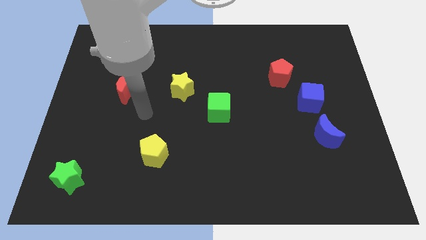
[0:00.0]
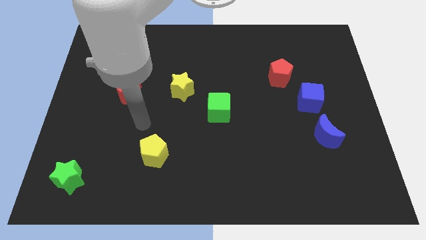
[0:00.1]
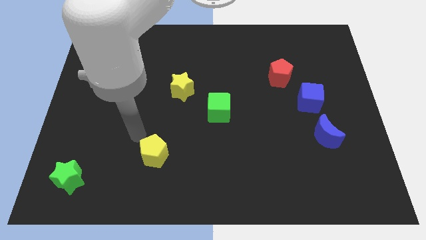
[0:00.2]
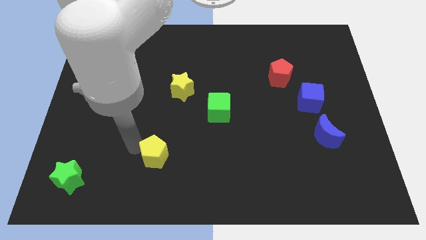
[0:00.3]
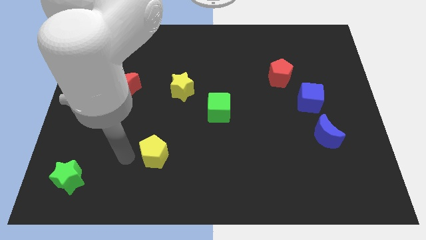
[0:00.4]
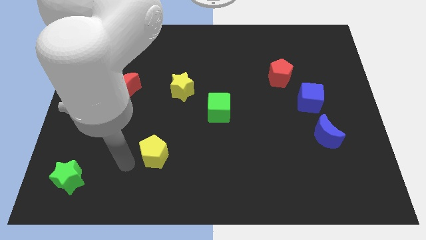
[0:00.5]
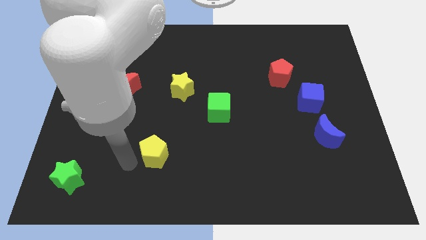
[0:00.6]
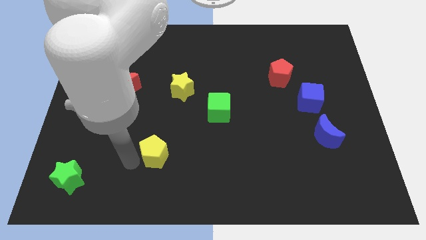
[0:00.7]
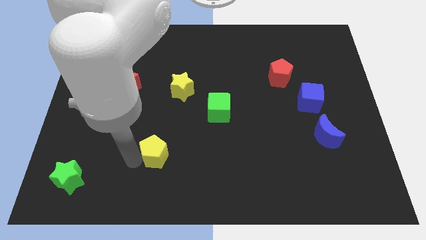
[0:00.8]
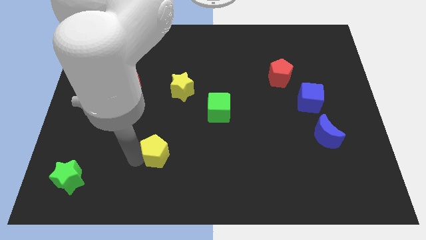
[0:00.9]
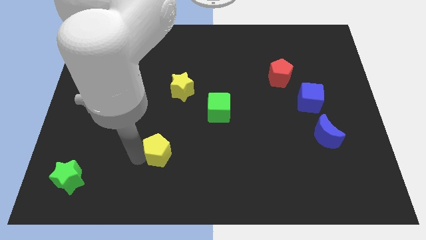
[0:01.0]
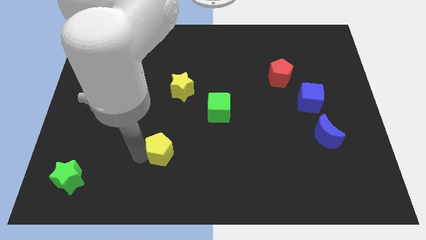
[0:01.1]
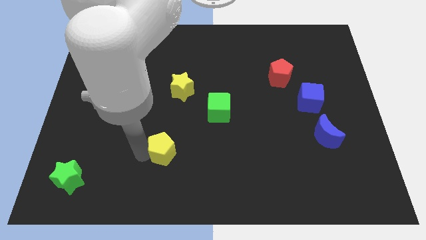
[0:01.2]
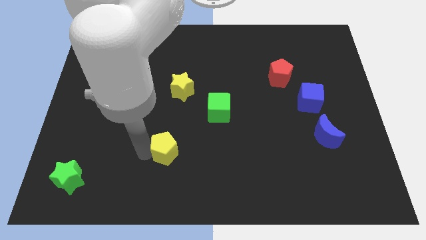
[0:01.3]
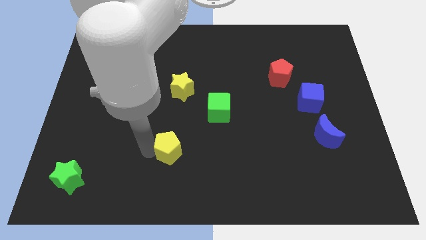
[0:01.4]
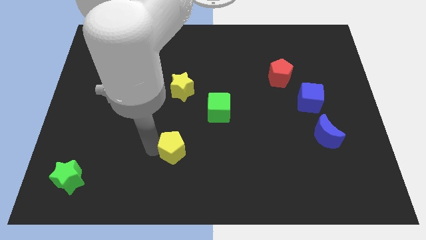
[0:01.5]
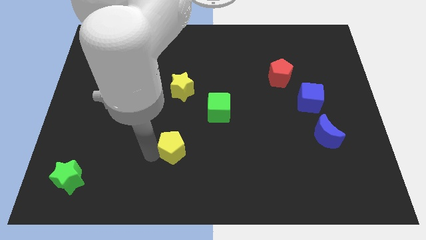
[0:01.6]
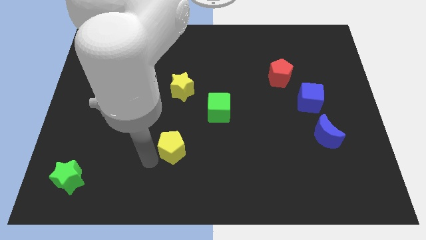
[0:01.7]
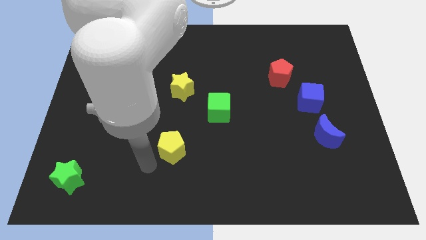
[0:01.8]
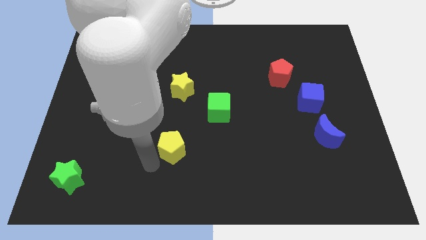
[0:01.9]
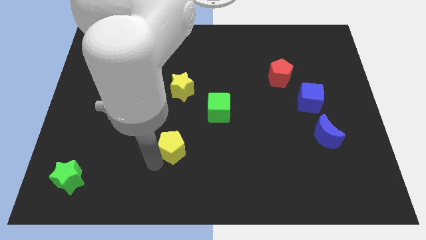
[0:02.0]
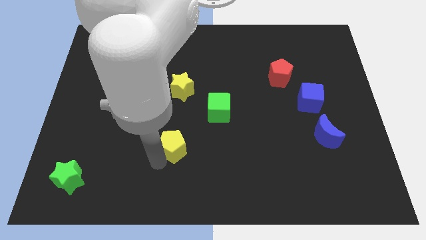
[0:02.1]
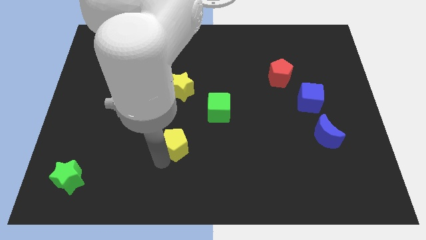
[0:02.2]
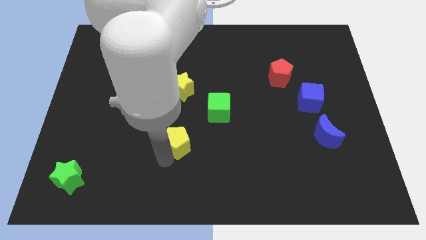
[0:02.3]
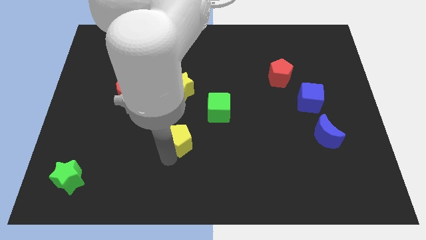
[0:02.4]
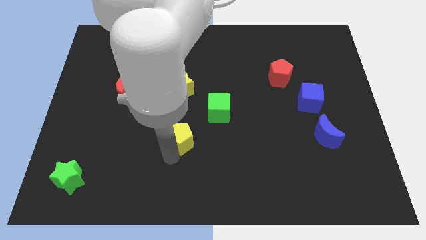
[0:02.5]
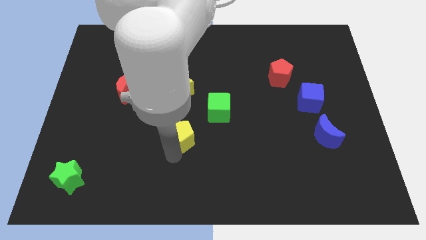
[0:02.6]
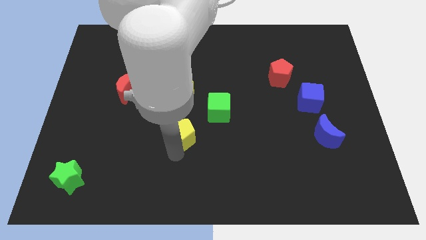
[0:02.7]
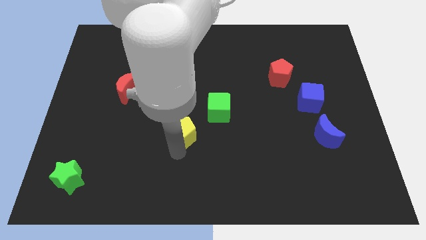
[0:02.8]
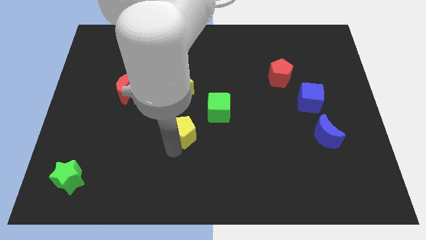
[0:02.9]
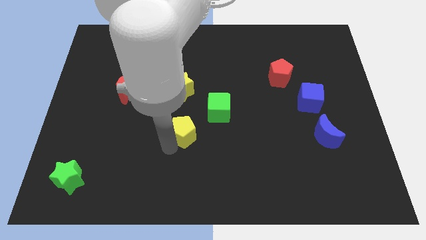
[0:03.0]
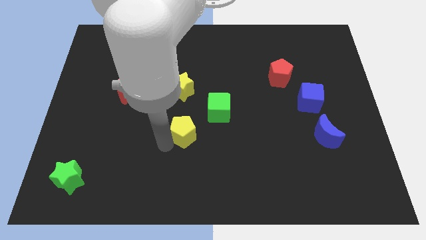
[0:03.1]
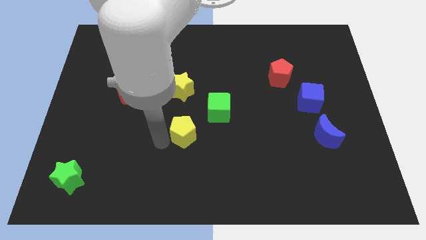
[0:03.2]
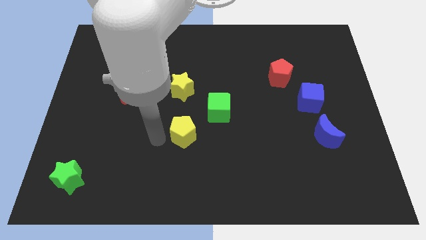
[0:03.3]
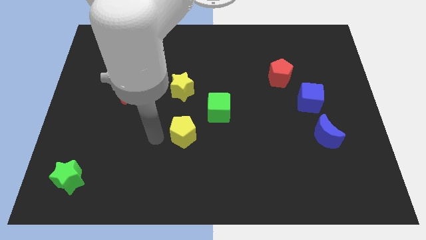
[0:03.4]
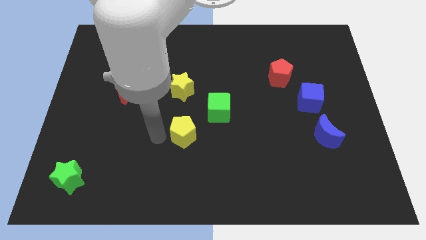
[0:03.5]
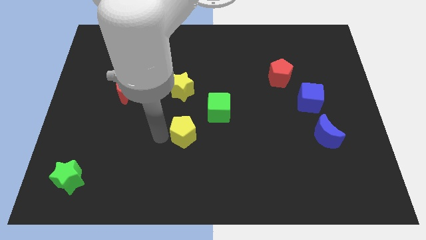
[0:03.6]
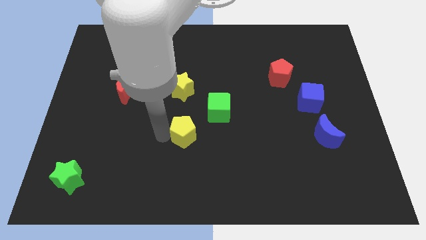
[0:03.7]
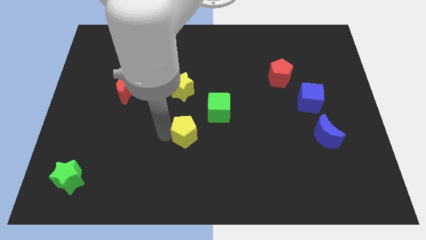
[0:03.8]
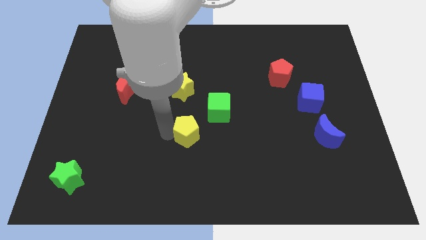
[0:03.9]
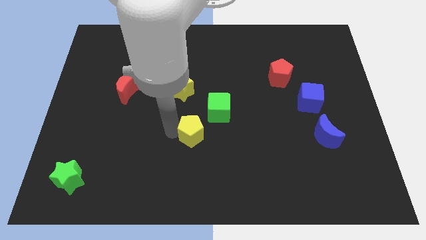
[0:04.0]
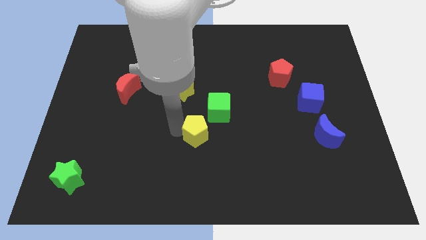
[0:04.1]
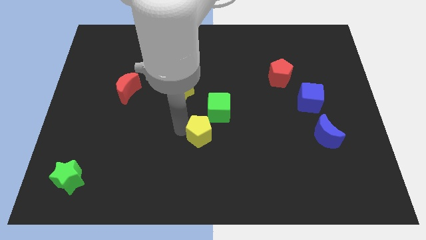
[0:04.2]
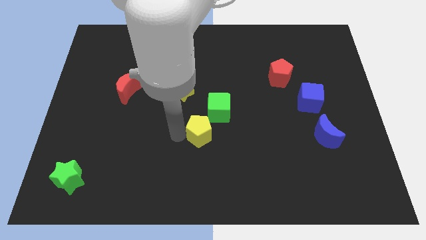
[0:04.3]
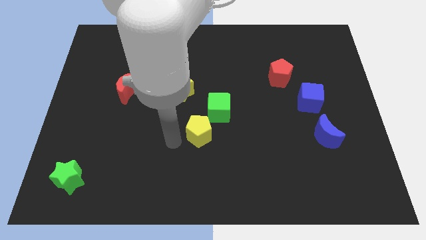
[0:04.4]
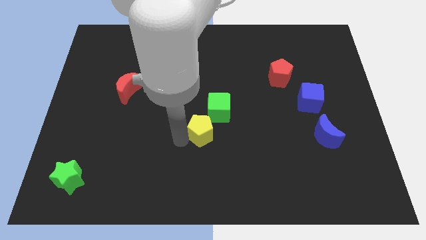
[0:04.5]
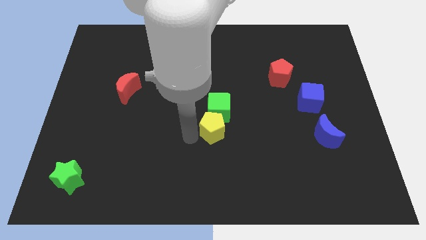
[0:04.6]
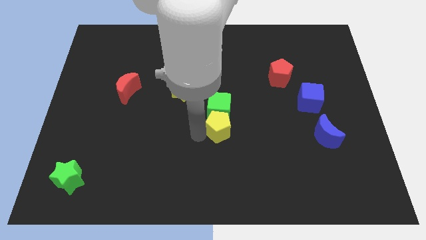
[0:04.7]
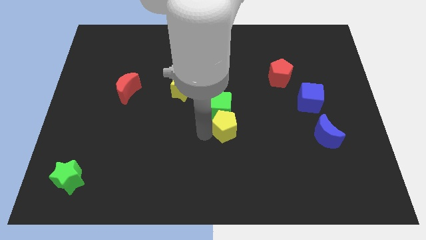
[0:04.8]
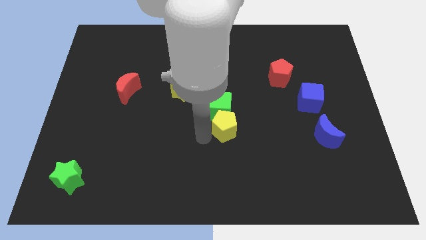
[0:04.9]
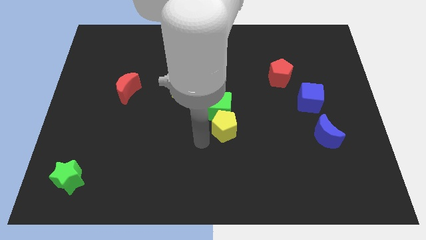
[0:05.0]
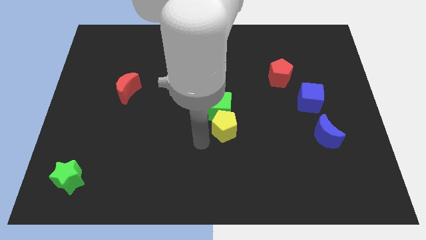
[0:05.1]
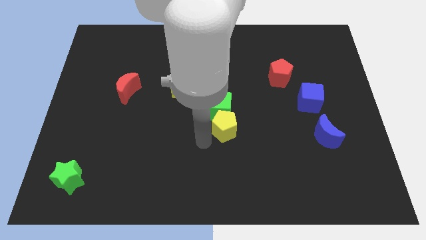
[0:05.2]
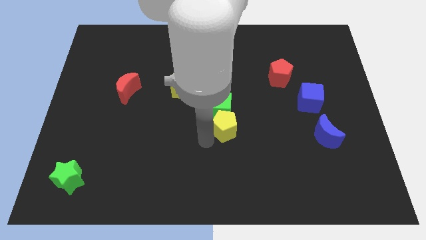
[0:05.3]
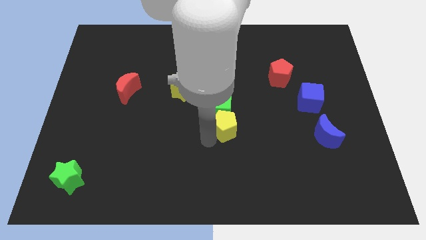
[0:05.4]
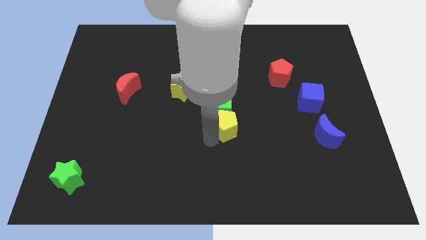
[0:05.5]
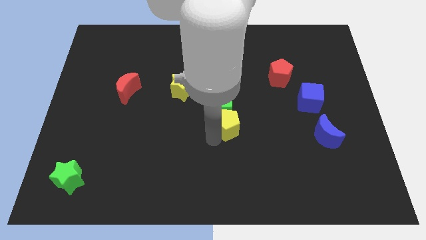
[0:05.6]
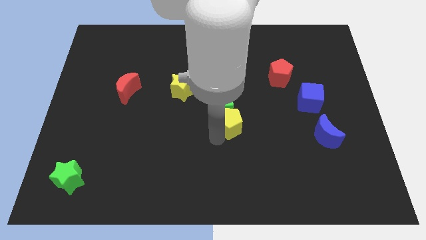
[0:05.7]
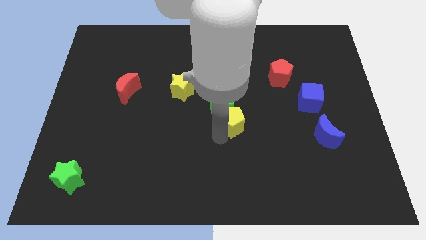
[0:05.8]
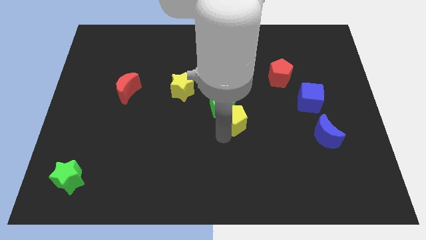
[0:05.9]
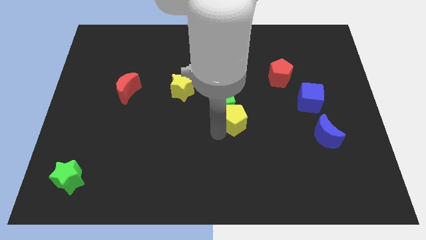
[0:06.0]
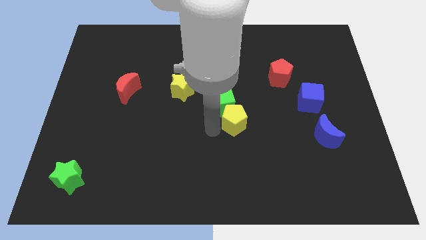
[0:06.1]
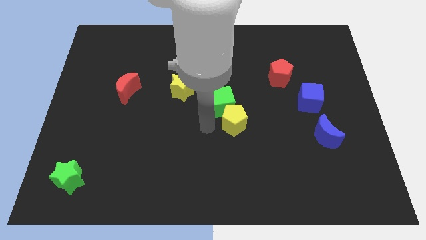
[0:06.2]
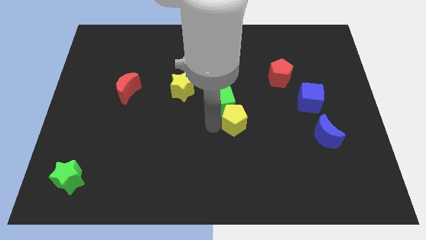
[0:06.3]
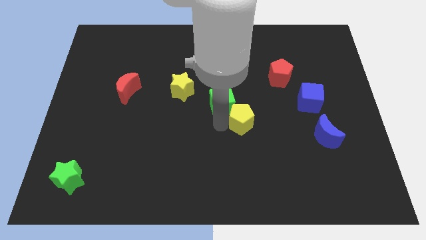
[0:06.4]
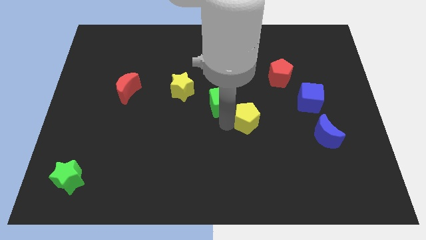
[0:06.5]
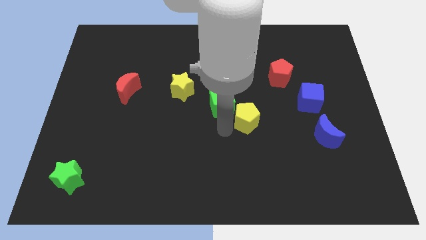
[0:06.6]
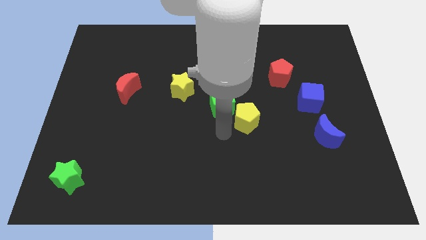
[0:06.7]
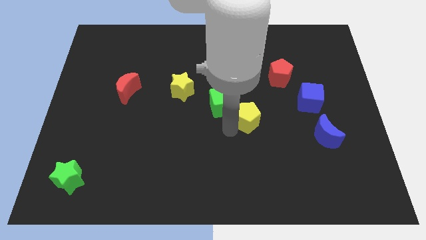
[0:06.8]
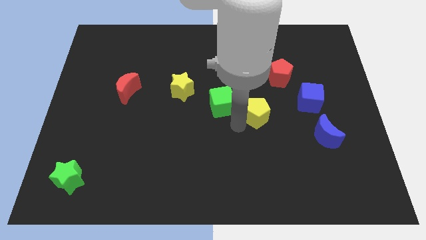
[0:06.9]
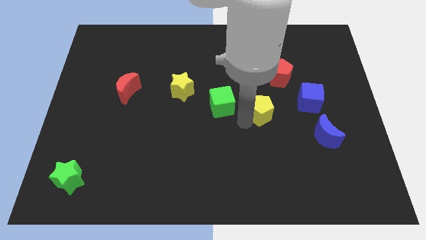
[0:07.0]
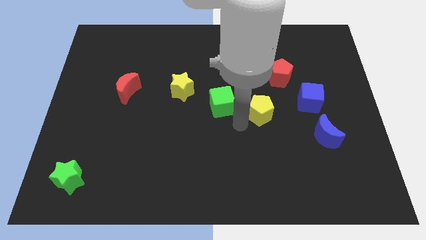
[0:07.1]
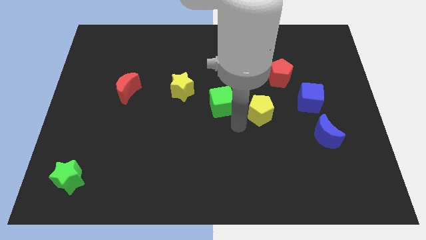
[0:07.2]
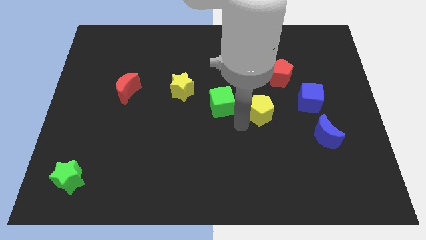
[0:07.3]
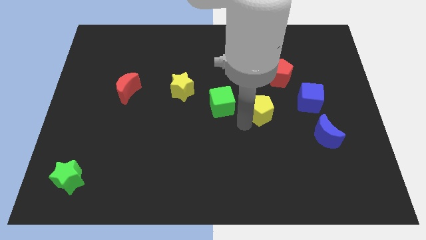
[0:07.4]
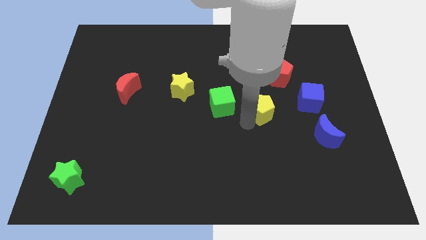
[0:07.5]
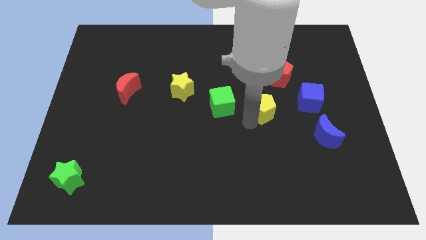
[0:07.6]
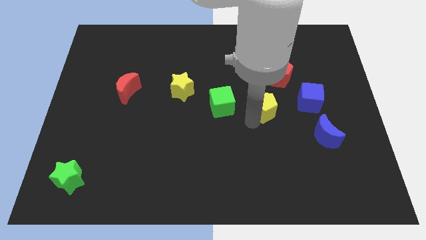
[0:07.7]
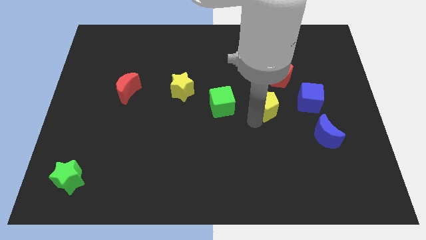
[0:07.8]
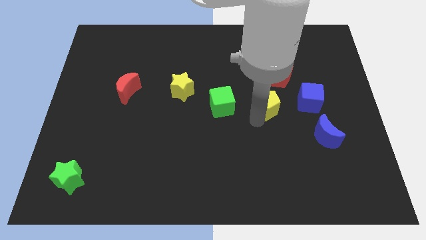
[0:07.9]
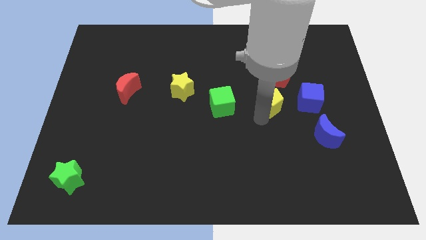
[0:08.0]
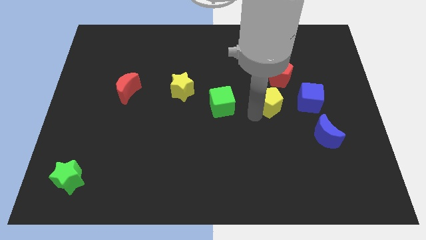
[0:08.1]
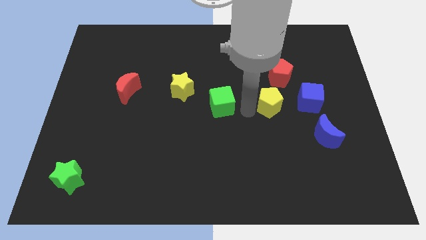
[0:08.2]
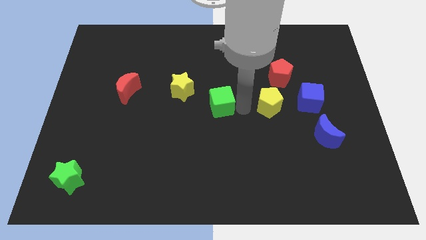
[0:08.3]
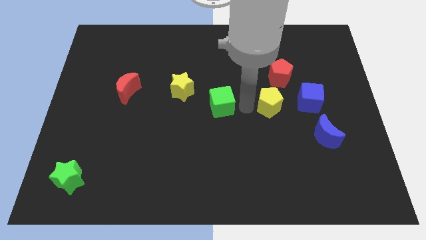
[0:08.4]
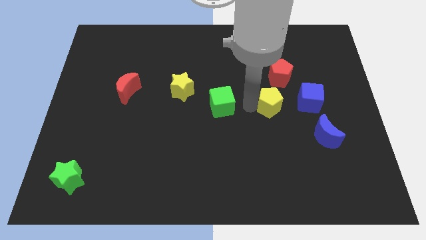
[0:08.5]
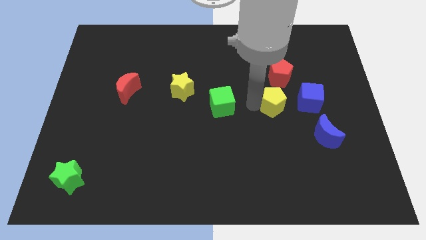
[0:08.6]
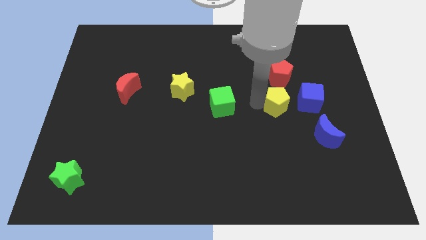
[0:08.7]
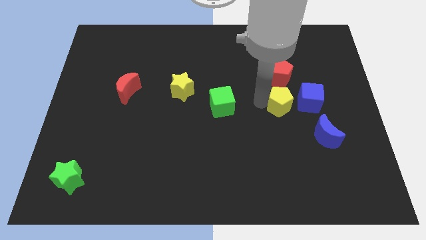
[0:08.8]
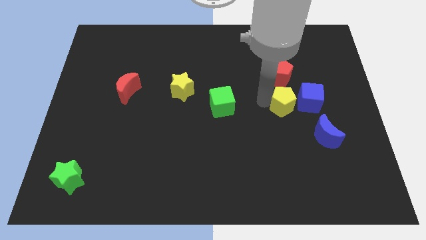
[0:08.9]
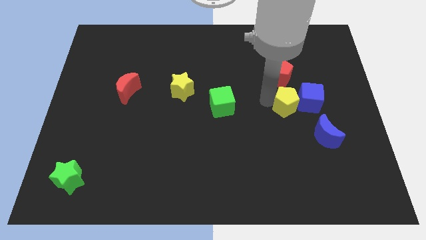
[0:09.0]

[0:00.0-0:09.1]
move the yellow pentagon towards the blue cube
